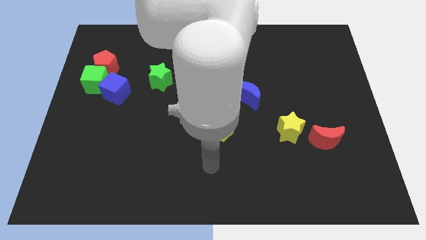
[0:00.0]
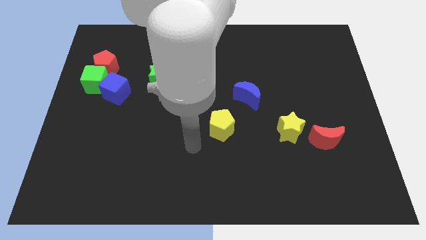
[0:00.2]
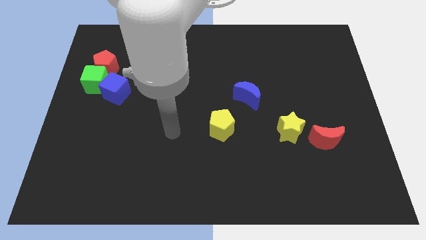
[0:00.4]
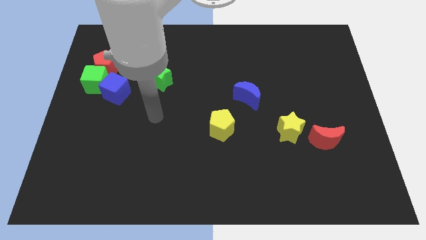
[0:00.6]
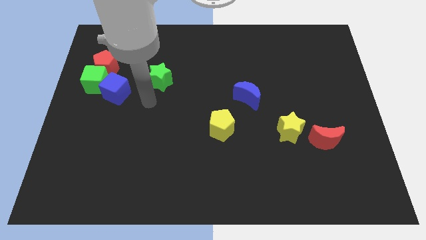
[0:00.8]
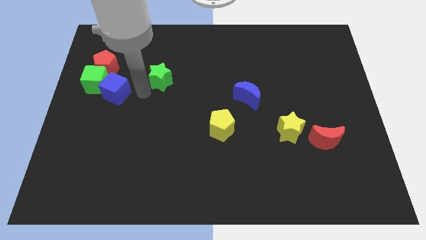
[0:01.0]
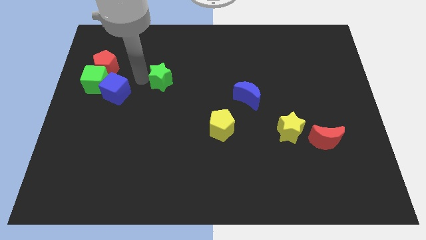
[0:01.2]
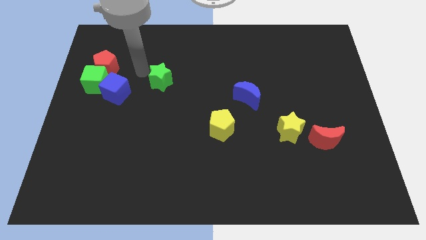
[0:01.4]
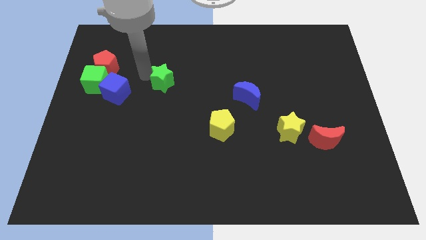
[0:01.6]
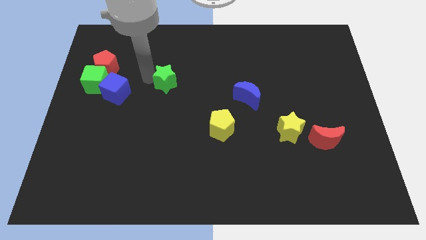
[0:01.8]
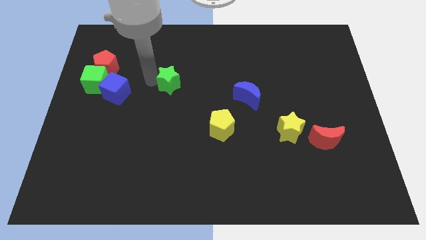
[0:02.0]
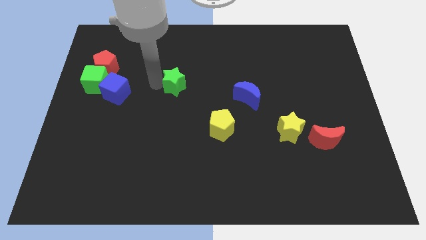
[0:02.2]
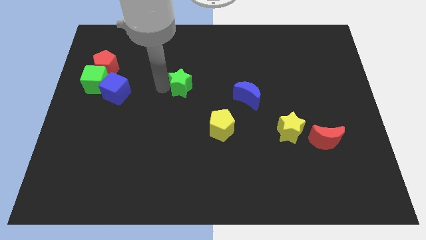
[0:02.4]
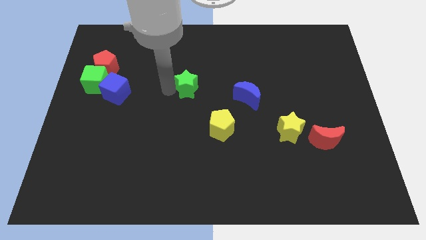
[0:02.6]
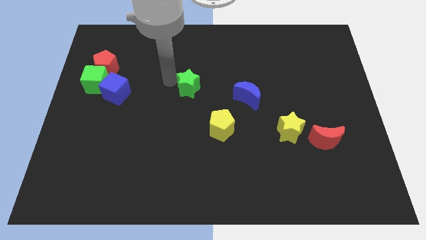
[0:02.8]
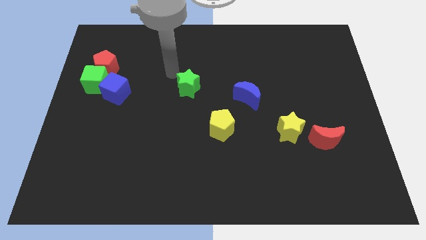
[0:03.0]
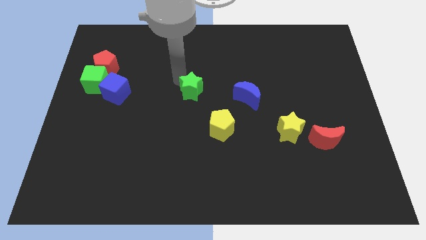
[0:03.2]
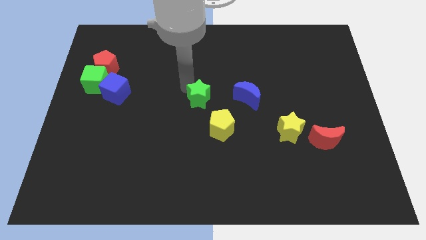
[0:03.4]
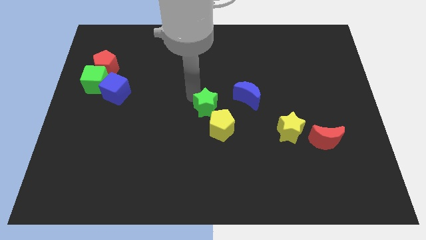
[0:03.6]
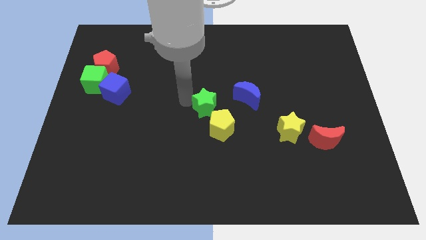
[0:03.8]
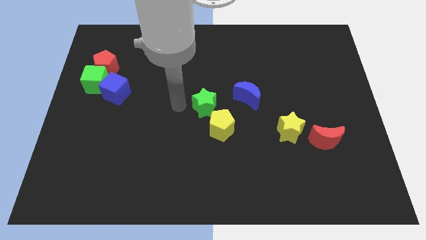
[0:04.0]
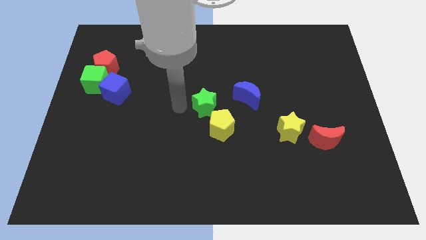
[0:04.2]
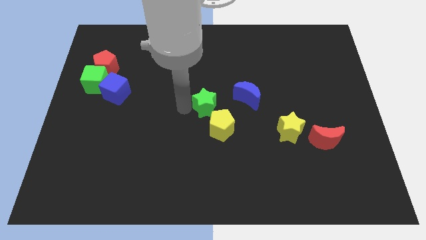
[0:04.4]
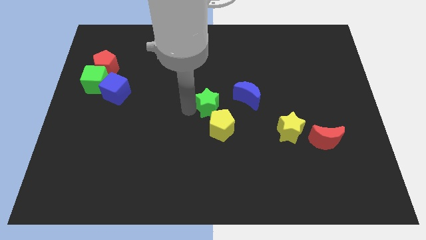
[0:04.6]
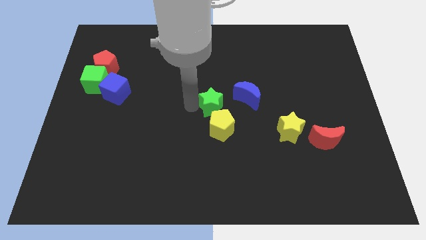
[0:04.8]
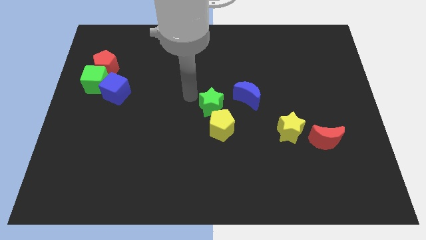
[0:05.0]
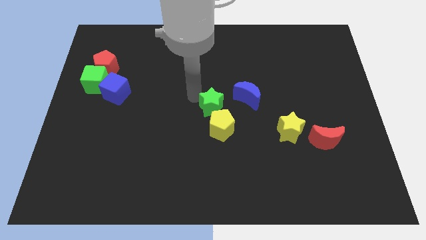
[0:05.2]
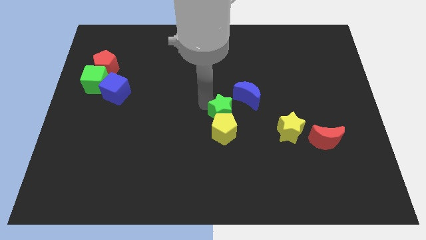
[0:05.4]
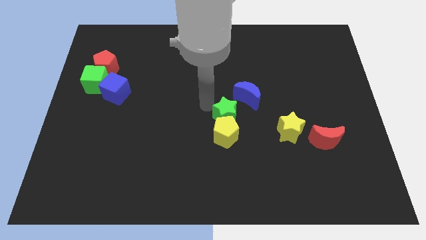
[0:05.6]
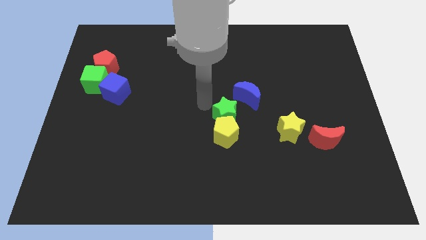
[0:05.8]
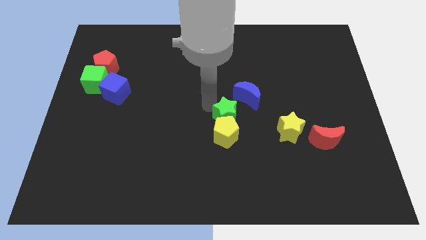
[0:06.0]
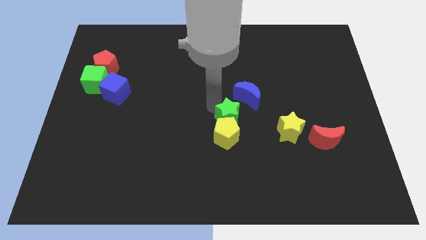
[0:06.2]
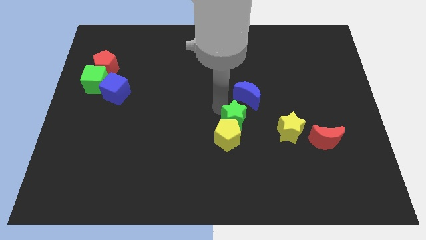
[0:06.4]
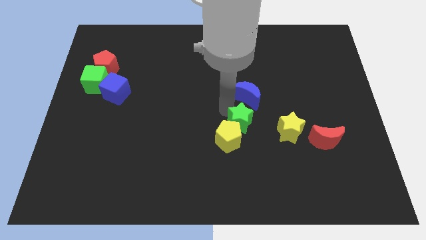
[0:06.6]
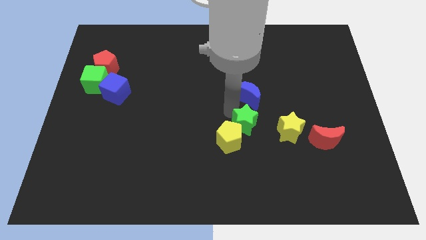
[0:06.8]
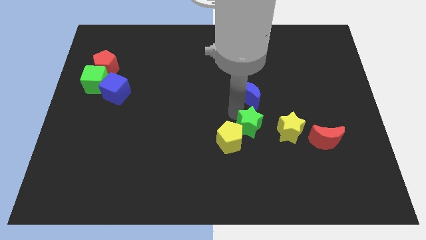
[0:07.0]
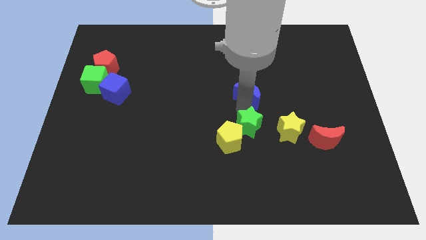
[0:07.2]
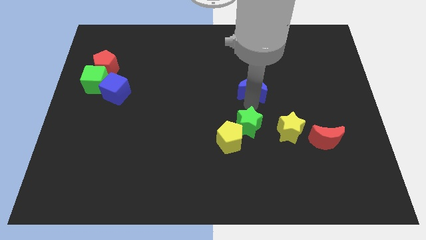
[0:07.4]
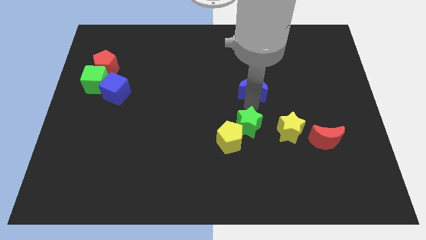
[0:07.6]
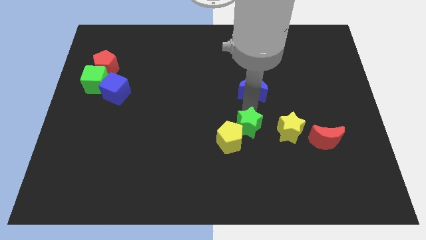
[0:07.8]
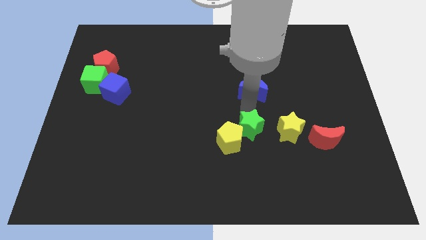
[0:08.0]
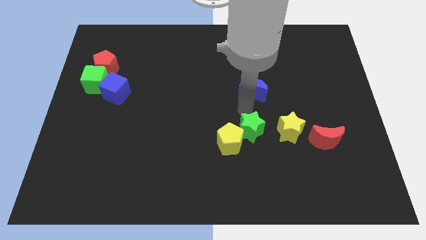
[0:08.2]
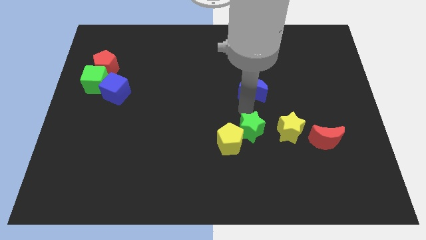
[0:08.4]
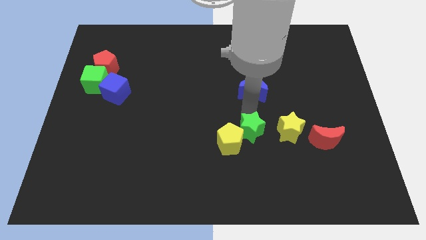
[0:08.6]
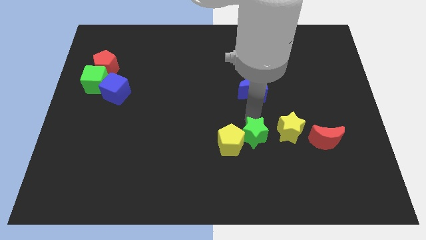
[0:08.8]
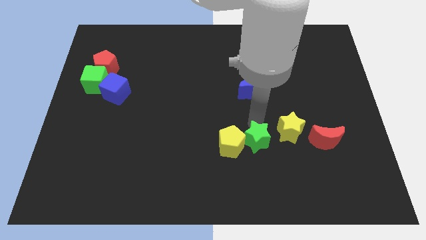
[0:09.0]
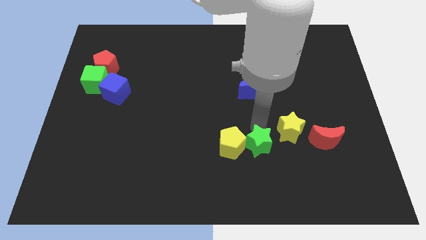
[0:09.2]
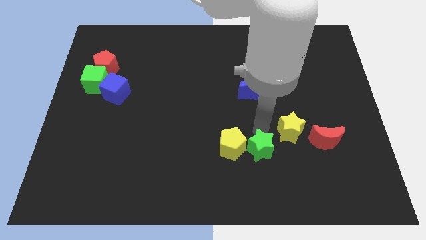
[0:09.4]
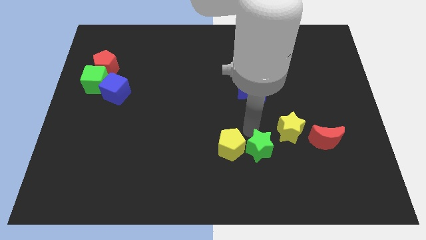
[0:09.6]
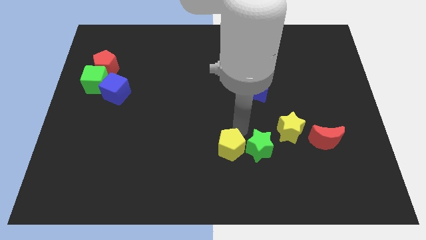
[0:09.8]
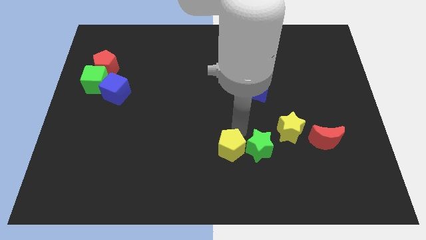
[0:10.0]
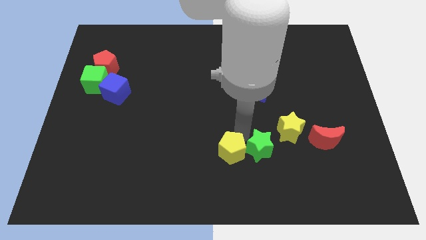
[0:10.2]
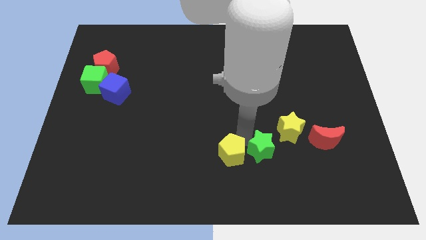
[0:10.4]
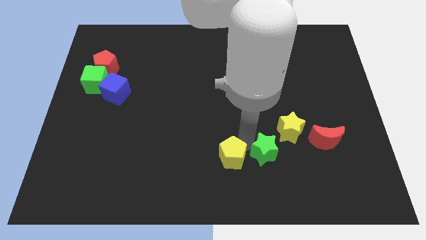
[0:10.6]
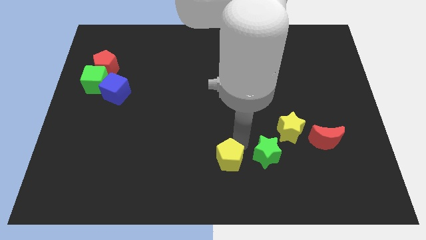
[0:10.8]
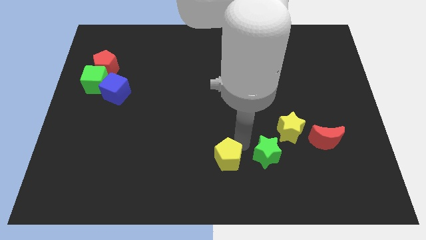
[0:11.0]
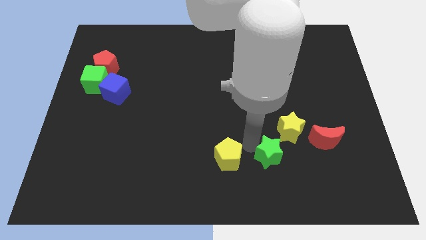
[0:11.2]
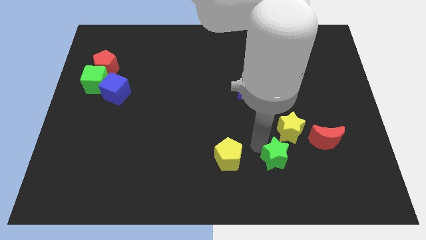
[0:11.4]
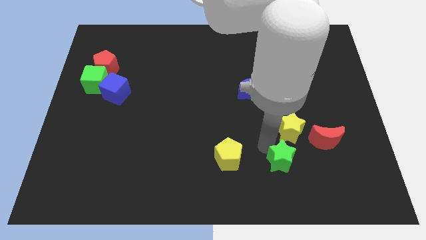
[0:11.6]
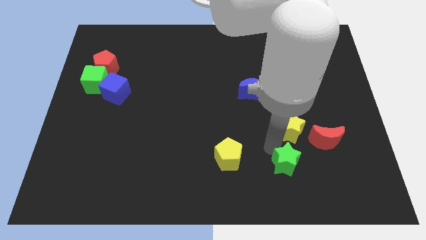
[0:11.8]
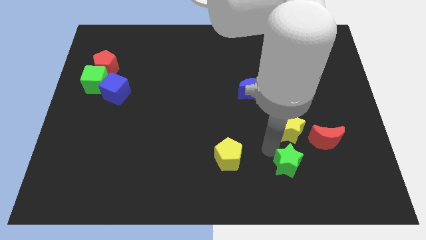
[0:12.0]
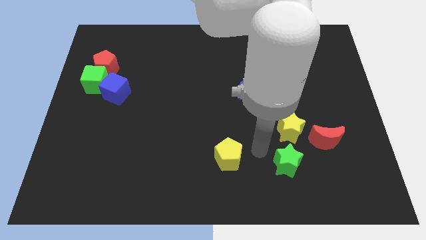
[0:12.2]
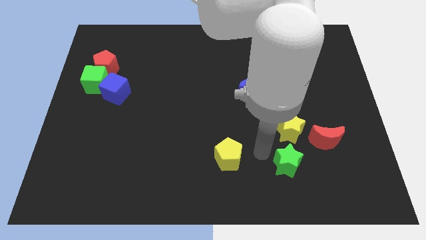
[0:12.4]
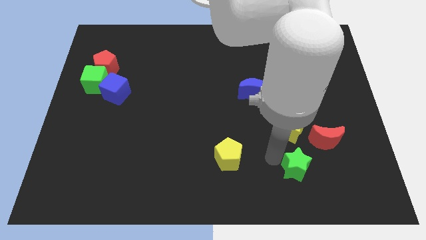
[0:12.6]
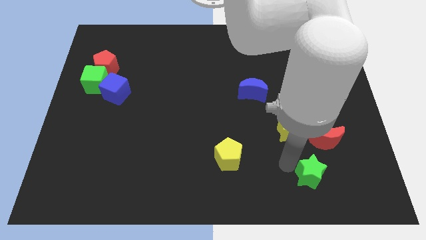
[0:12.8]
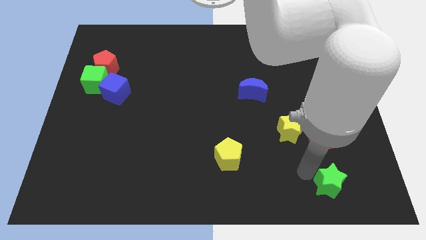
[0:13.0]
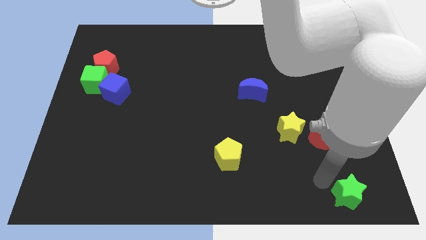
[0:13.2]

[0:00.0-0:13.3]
put the green star to the bottom right of the board

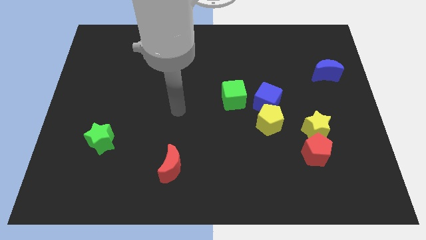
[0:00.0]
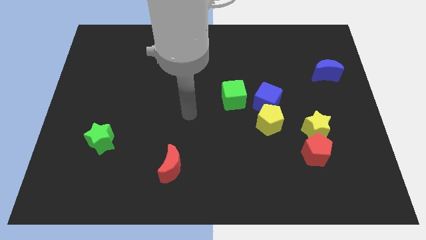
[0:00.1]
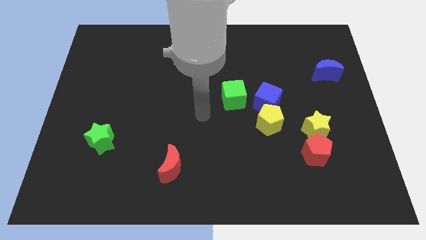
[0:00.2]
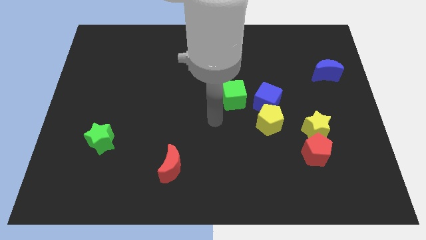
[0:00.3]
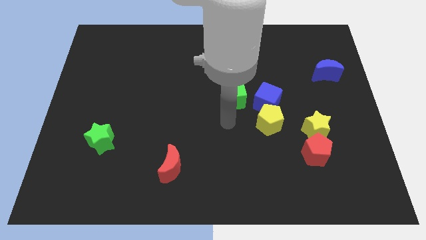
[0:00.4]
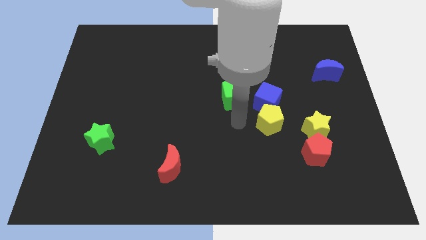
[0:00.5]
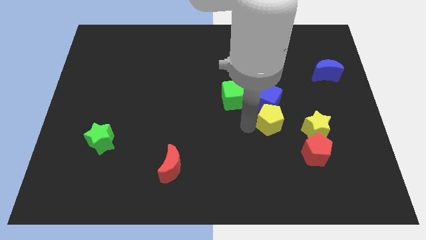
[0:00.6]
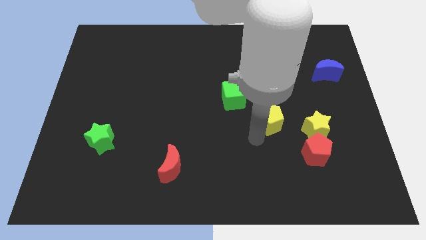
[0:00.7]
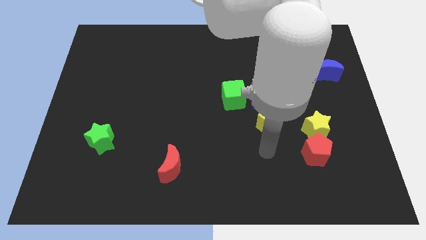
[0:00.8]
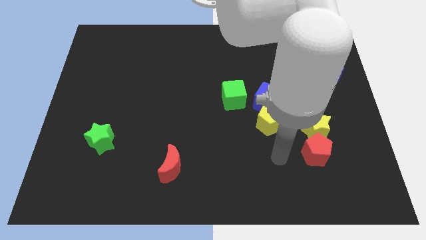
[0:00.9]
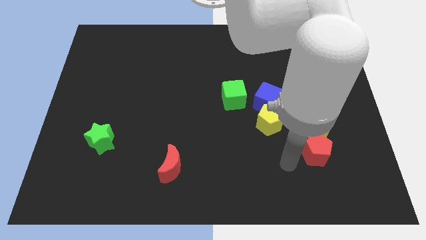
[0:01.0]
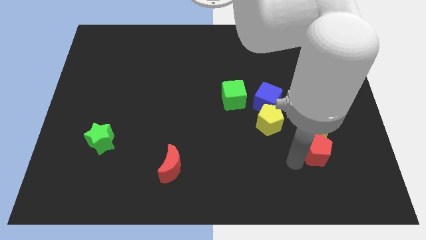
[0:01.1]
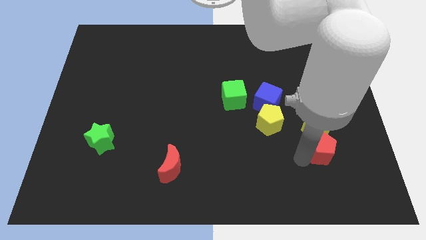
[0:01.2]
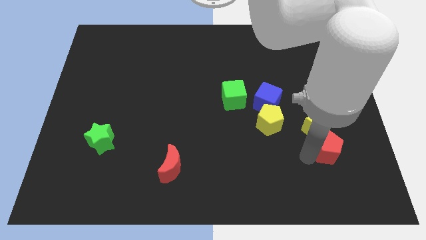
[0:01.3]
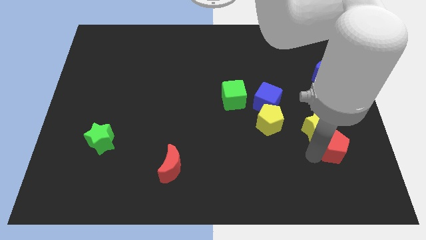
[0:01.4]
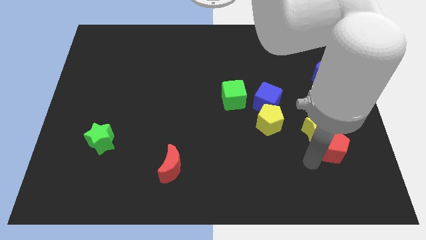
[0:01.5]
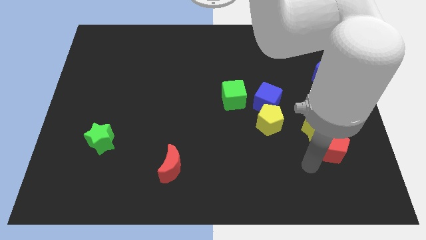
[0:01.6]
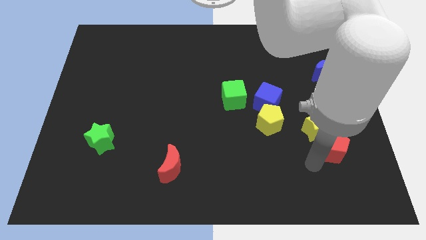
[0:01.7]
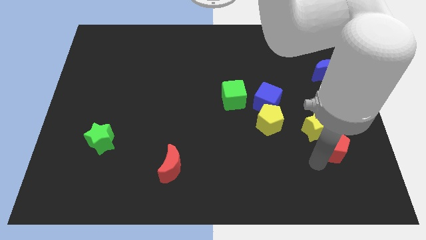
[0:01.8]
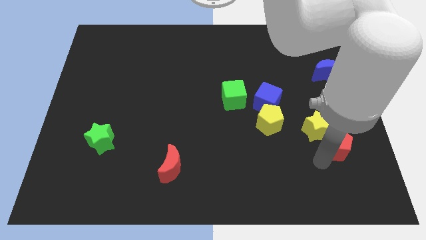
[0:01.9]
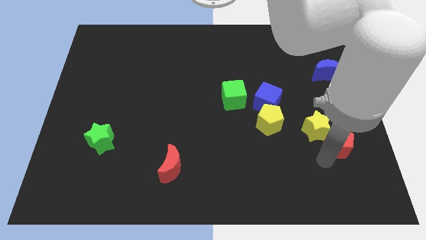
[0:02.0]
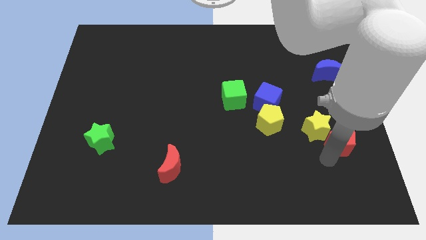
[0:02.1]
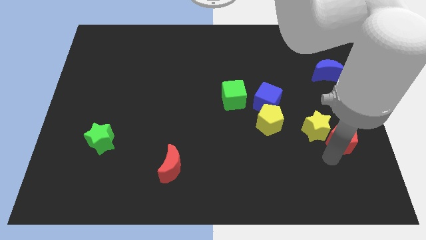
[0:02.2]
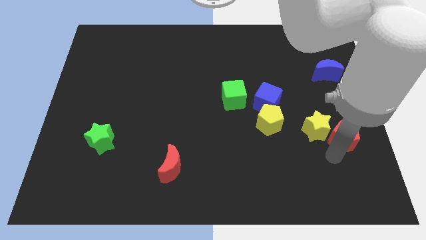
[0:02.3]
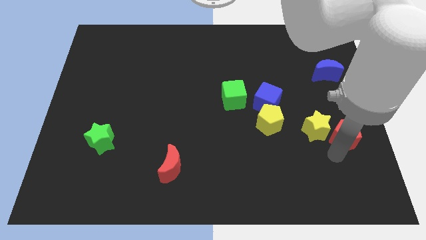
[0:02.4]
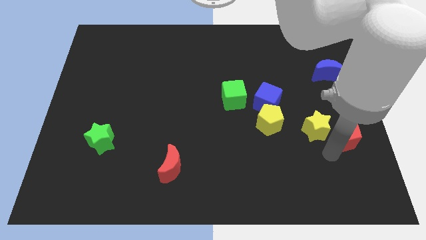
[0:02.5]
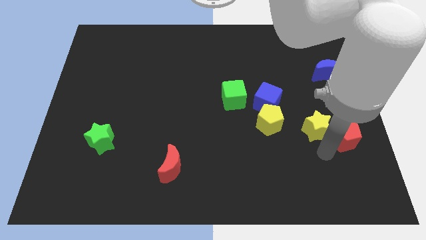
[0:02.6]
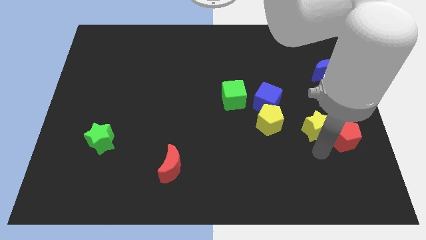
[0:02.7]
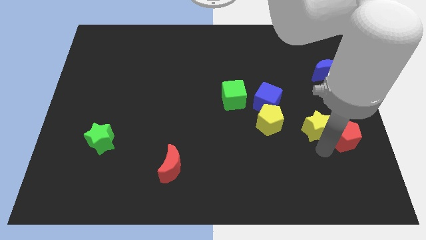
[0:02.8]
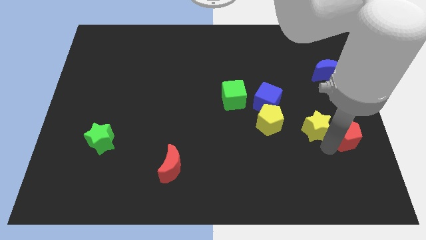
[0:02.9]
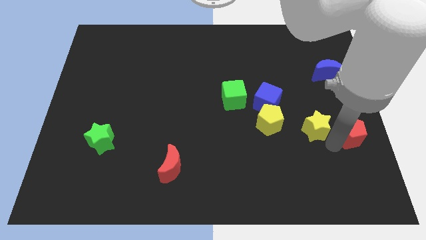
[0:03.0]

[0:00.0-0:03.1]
put the red pentagon to the center right
